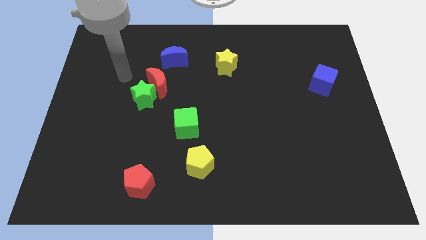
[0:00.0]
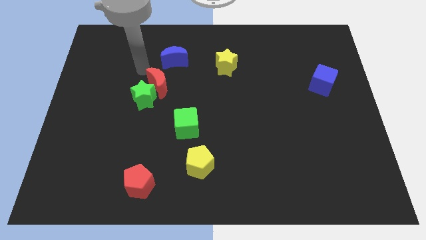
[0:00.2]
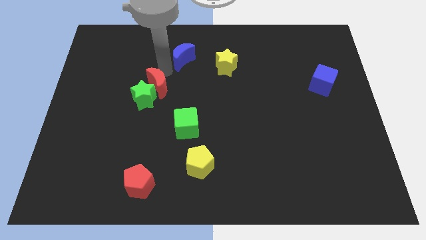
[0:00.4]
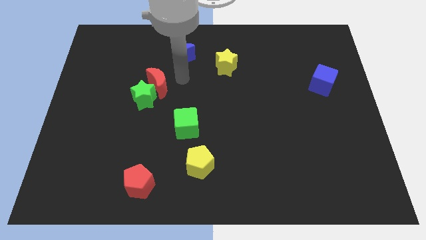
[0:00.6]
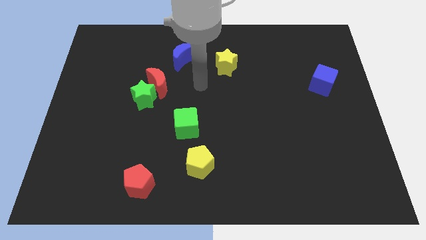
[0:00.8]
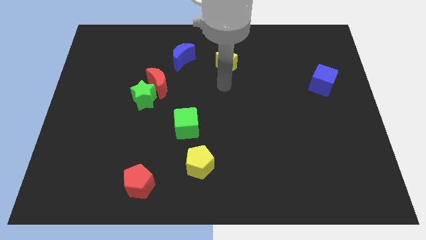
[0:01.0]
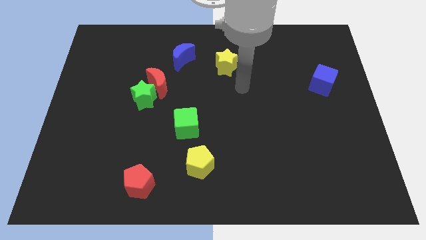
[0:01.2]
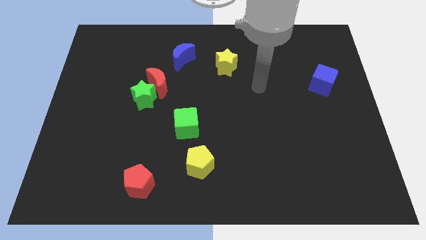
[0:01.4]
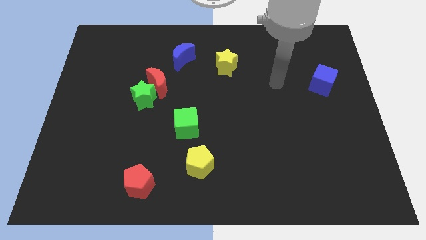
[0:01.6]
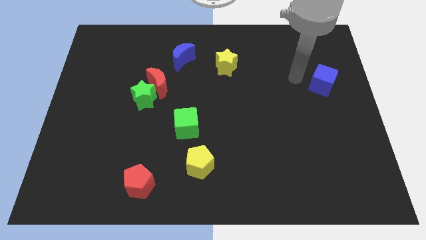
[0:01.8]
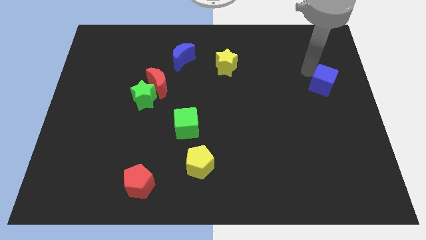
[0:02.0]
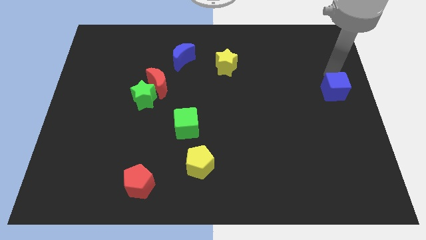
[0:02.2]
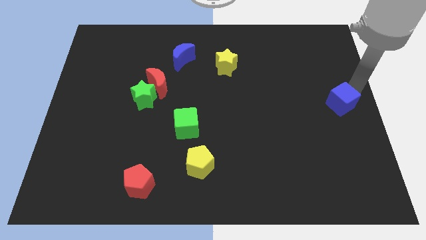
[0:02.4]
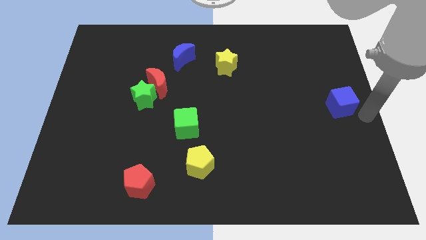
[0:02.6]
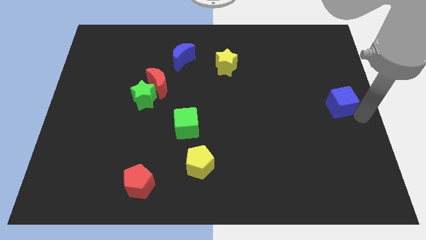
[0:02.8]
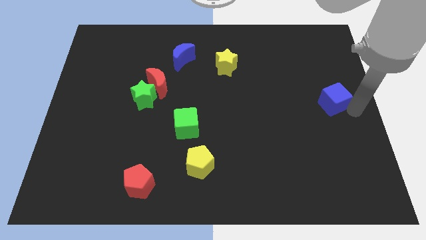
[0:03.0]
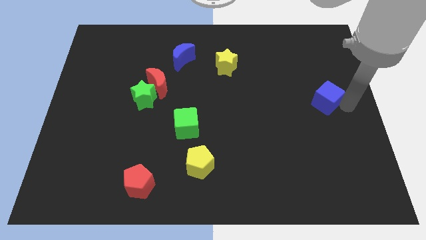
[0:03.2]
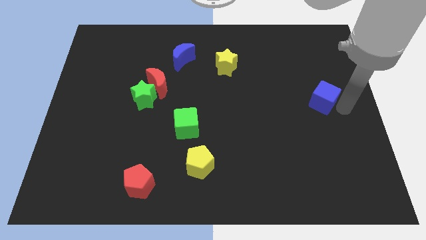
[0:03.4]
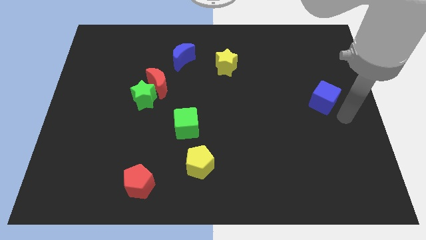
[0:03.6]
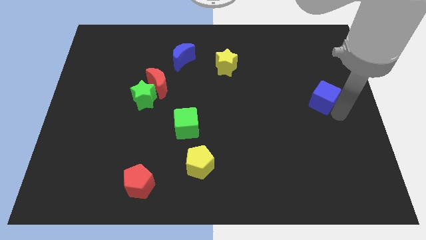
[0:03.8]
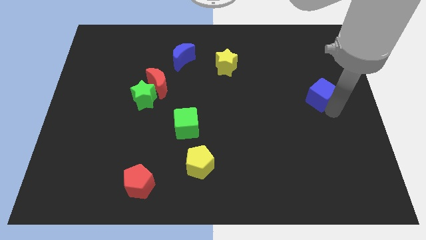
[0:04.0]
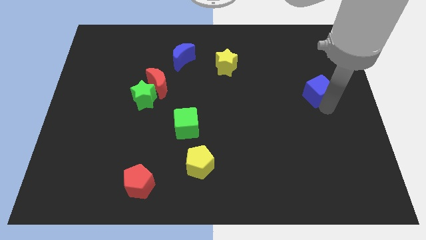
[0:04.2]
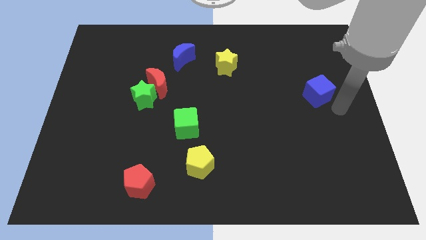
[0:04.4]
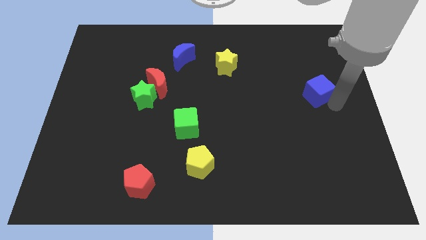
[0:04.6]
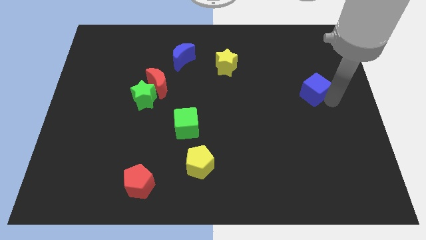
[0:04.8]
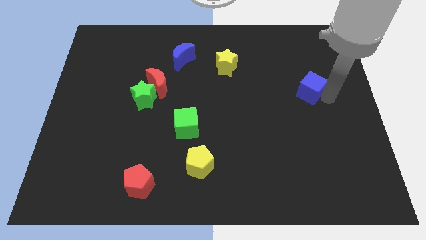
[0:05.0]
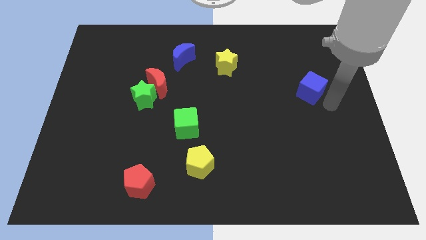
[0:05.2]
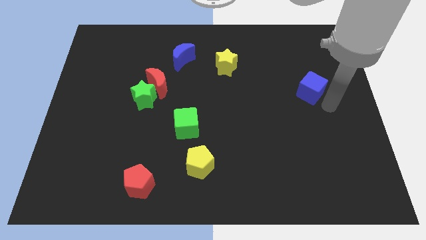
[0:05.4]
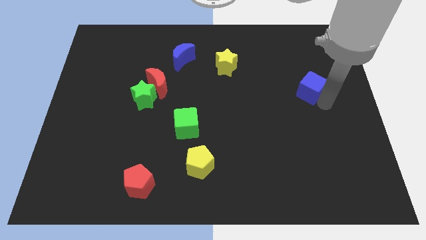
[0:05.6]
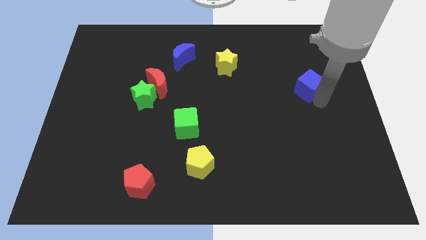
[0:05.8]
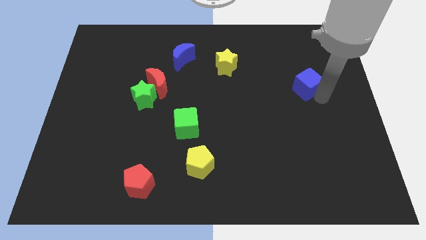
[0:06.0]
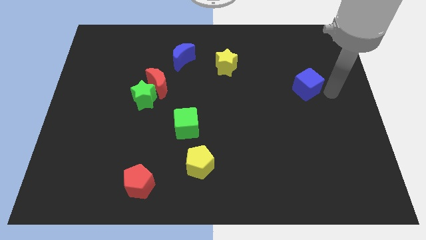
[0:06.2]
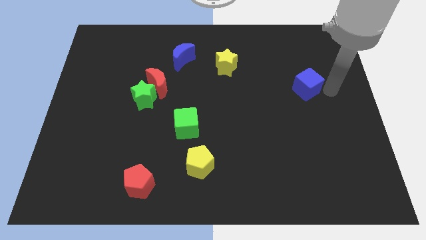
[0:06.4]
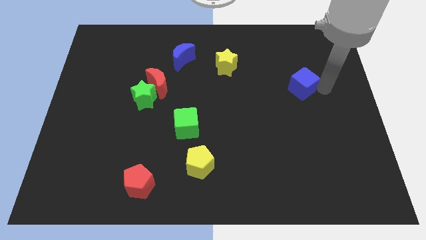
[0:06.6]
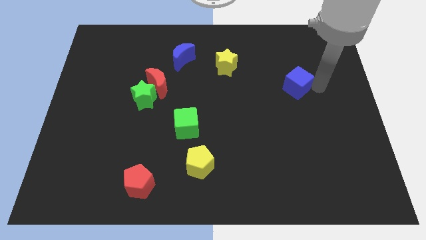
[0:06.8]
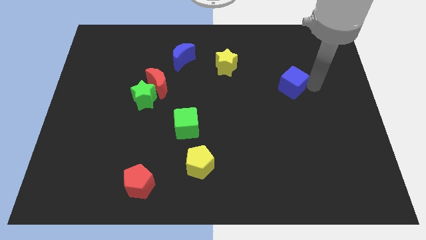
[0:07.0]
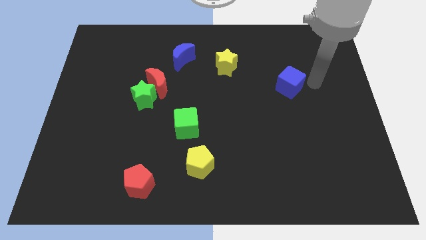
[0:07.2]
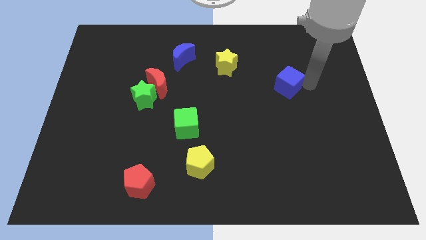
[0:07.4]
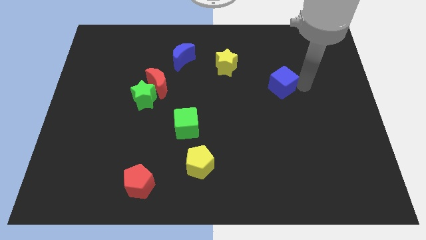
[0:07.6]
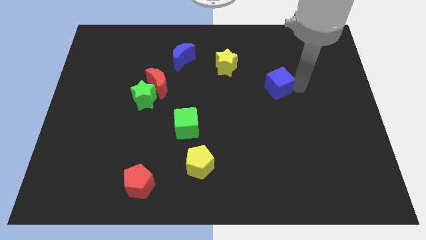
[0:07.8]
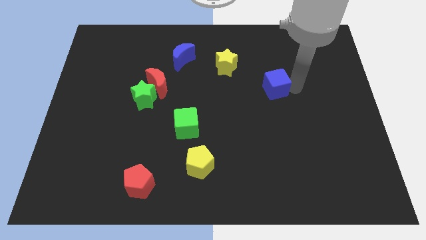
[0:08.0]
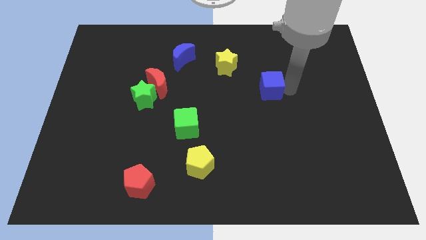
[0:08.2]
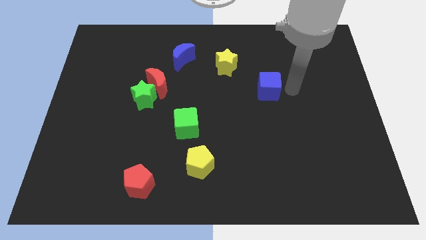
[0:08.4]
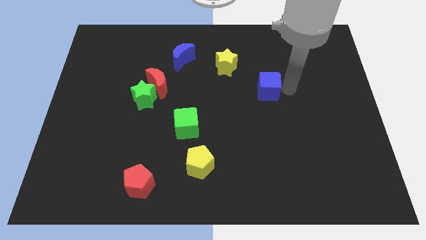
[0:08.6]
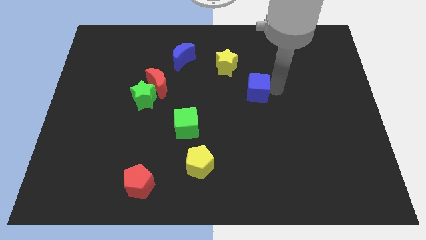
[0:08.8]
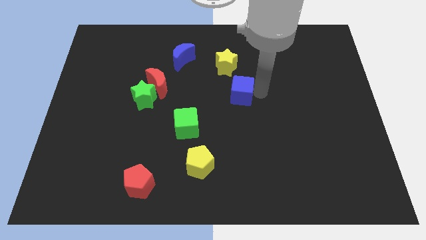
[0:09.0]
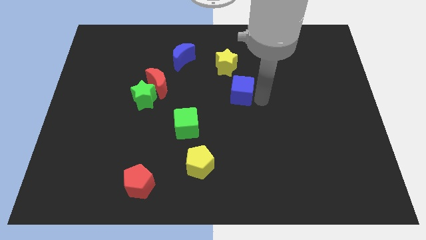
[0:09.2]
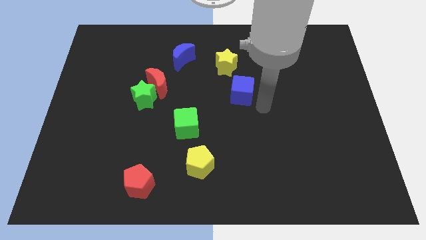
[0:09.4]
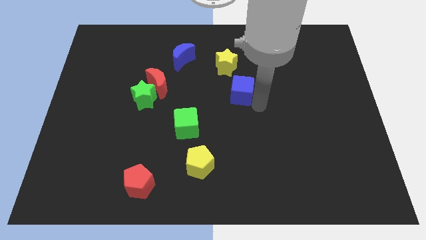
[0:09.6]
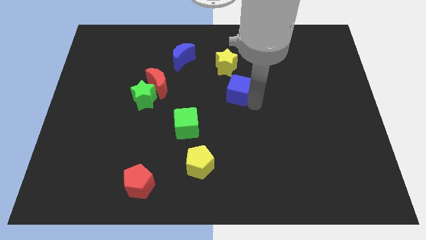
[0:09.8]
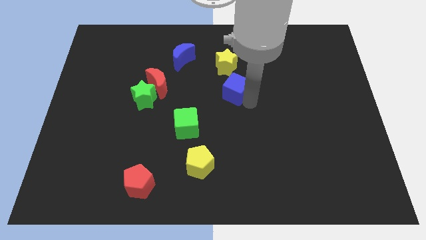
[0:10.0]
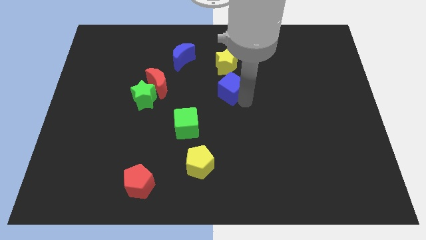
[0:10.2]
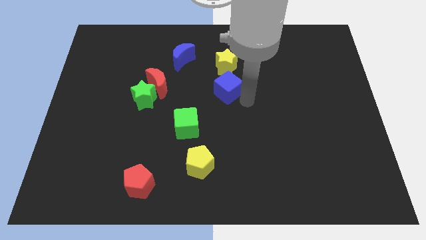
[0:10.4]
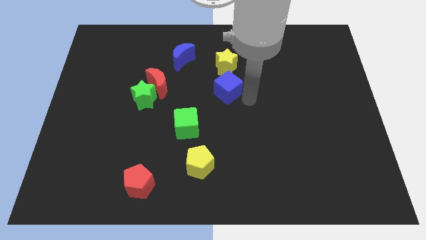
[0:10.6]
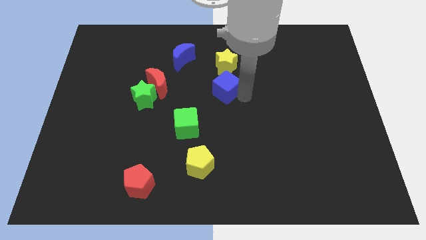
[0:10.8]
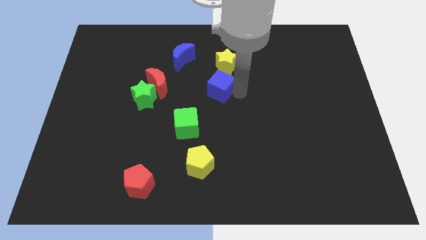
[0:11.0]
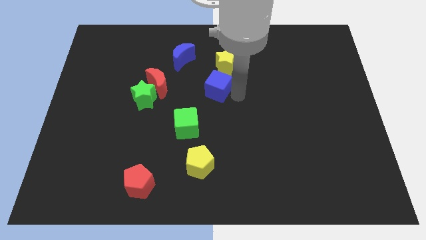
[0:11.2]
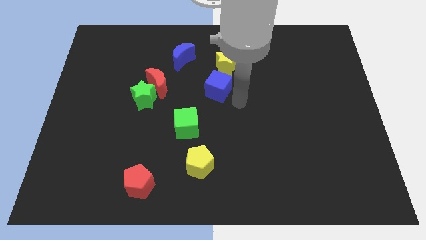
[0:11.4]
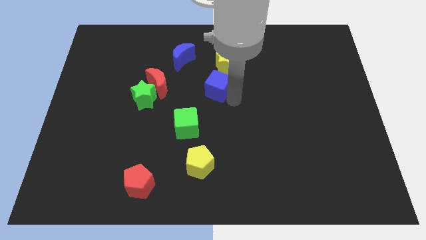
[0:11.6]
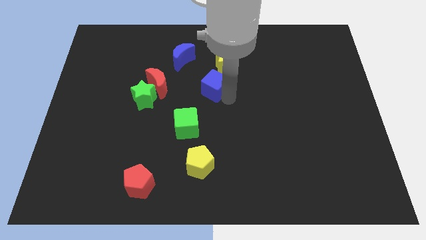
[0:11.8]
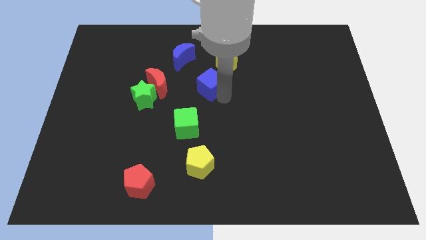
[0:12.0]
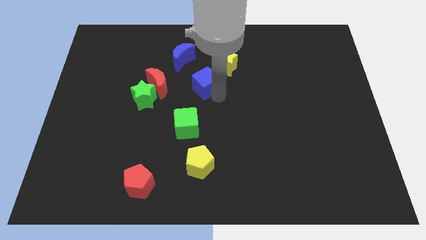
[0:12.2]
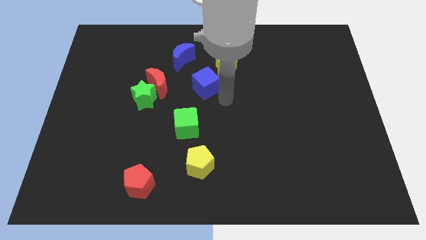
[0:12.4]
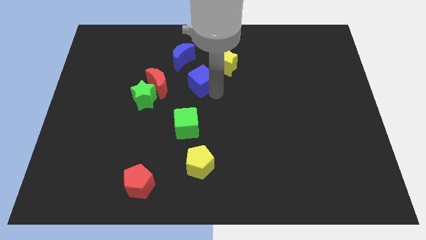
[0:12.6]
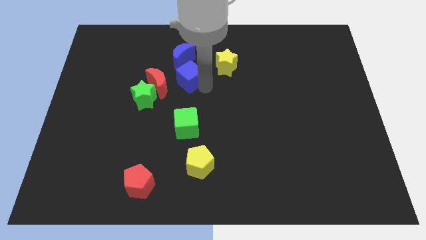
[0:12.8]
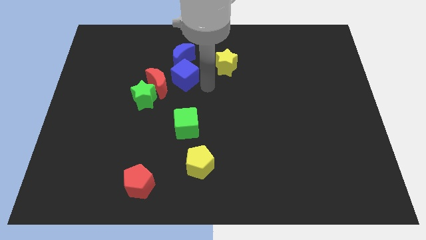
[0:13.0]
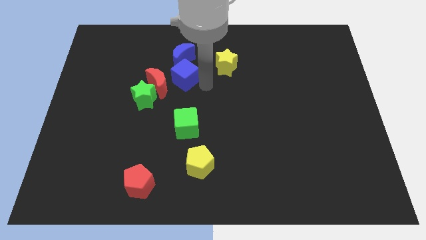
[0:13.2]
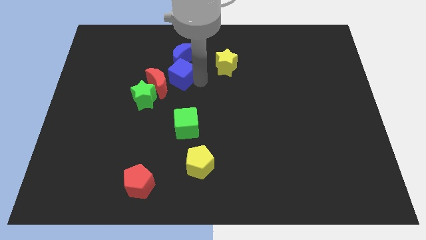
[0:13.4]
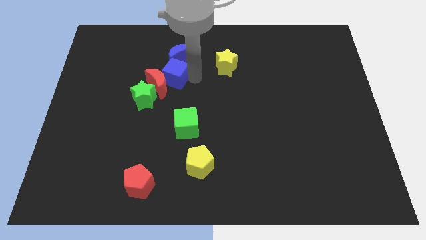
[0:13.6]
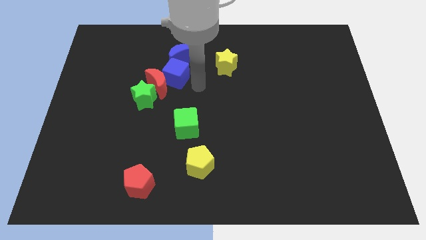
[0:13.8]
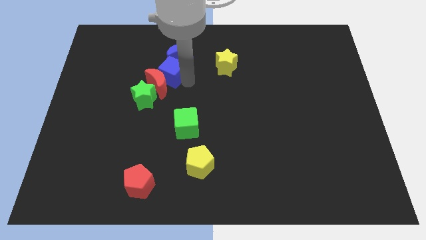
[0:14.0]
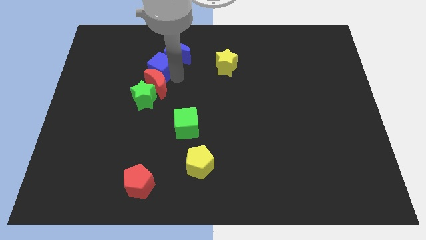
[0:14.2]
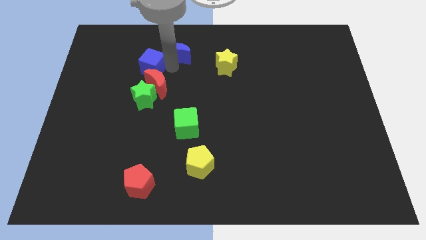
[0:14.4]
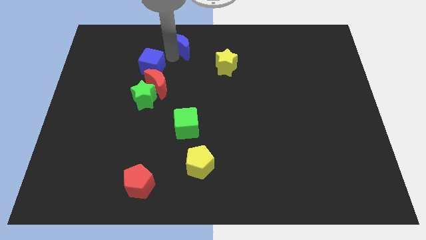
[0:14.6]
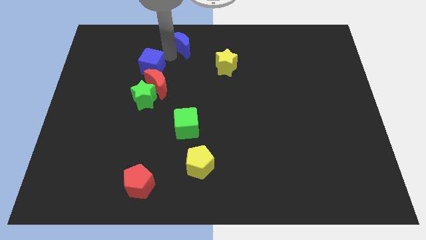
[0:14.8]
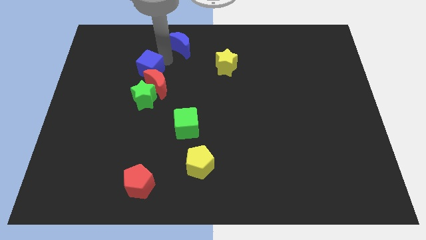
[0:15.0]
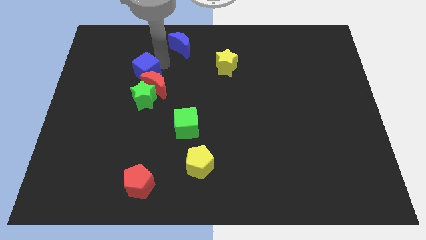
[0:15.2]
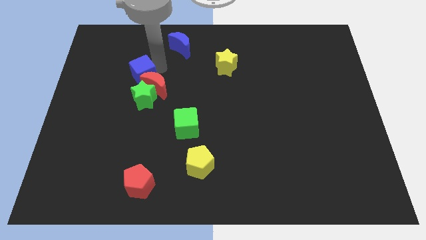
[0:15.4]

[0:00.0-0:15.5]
move the blue cube to the top left of the green star
